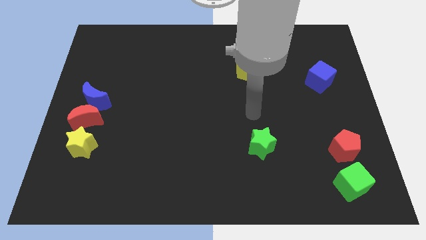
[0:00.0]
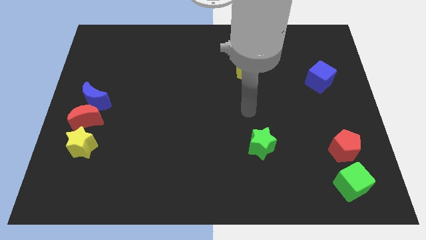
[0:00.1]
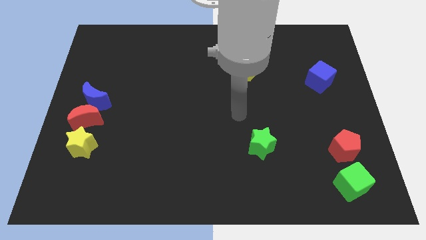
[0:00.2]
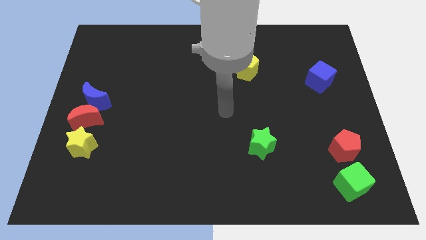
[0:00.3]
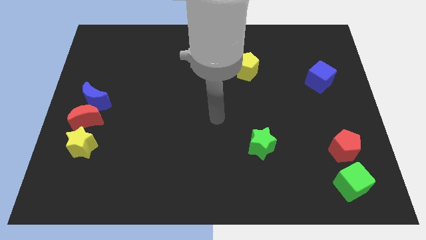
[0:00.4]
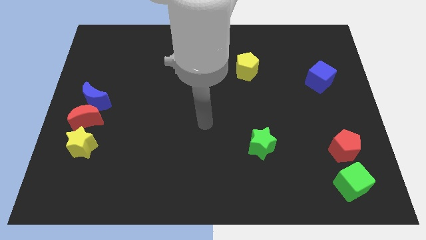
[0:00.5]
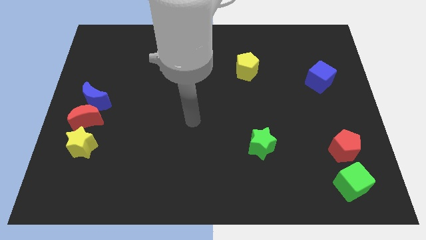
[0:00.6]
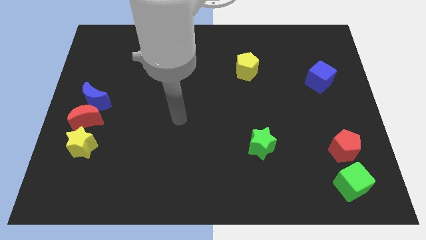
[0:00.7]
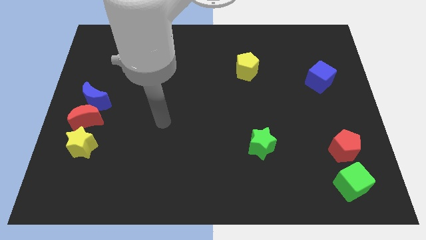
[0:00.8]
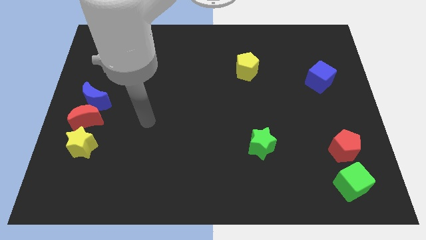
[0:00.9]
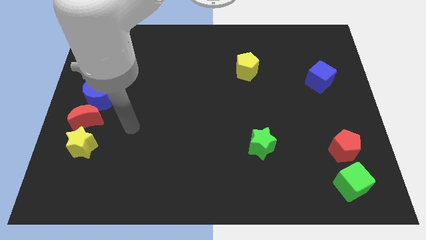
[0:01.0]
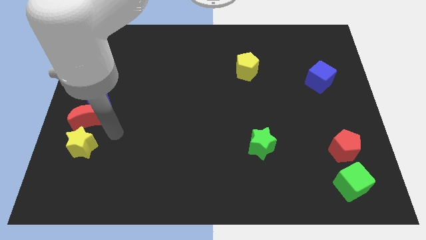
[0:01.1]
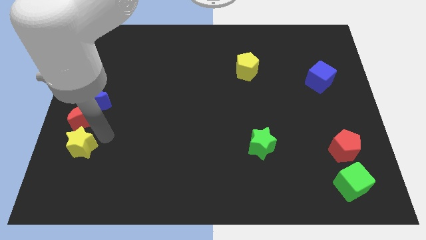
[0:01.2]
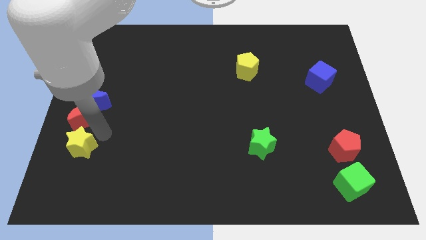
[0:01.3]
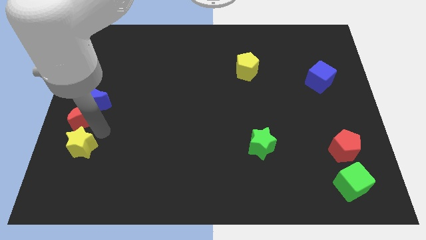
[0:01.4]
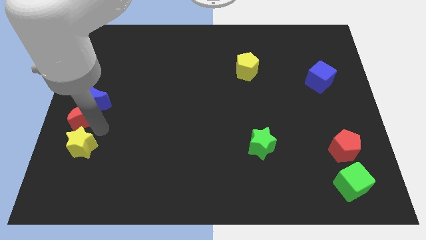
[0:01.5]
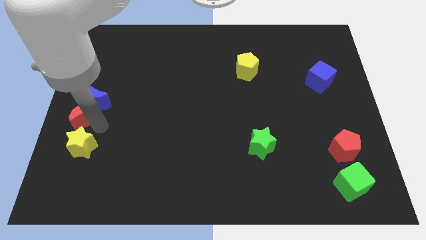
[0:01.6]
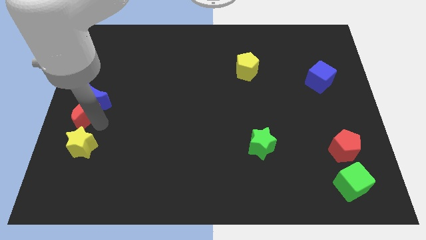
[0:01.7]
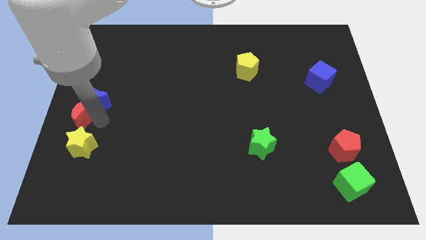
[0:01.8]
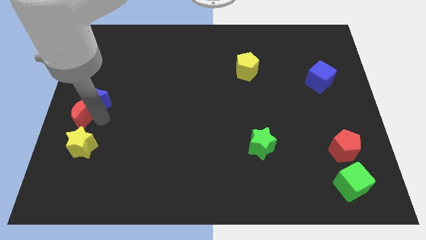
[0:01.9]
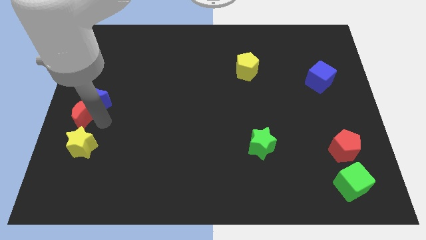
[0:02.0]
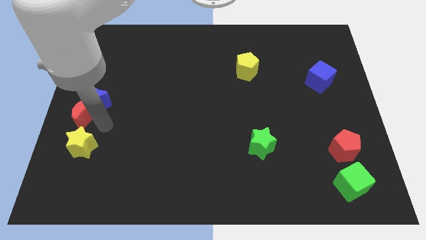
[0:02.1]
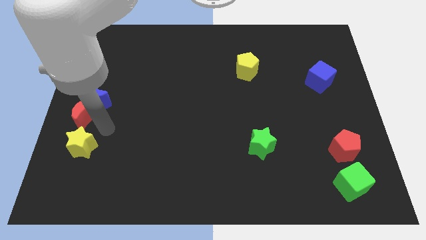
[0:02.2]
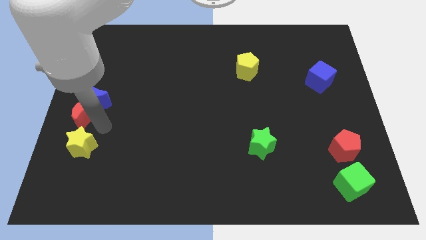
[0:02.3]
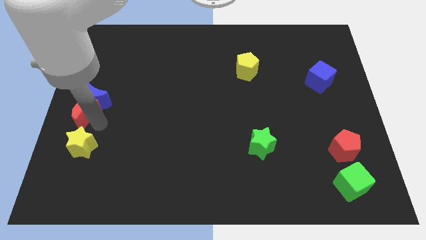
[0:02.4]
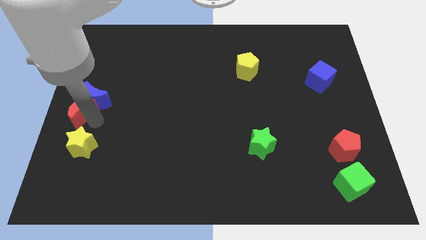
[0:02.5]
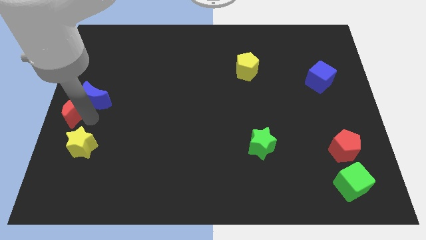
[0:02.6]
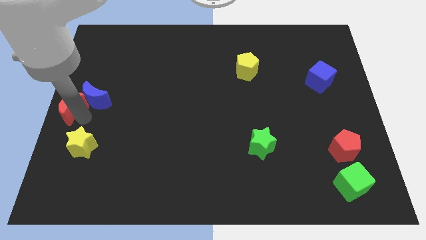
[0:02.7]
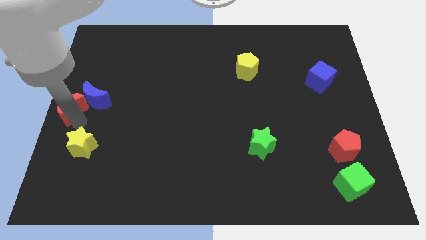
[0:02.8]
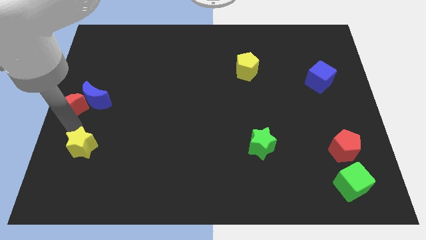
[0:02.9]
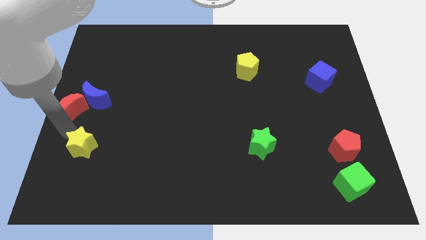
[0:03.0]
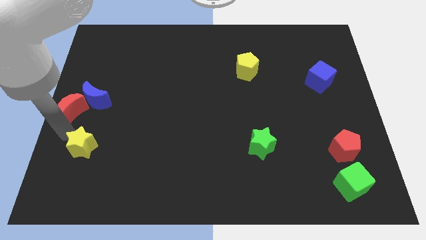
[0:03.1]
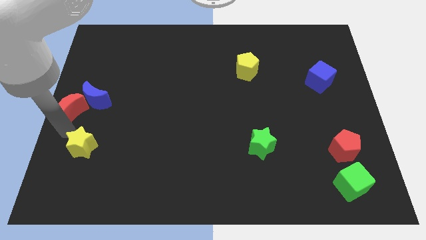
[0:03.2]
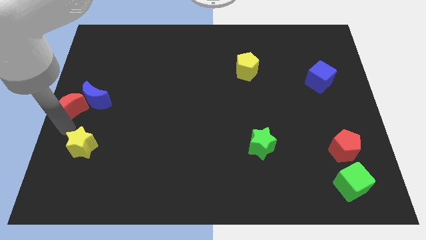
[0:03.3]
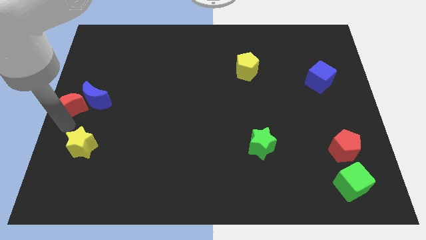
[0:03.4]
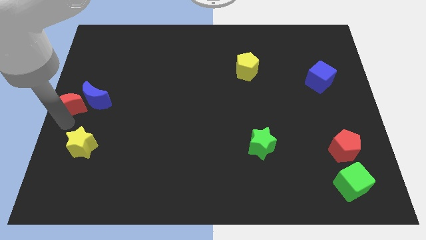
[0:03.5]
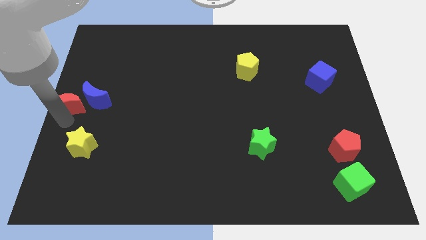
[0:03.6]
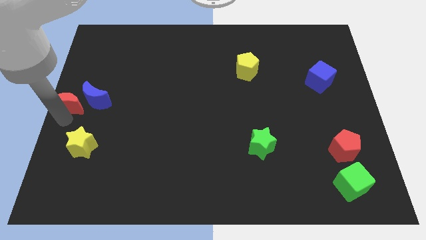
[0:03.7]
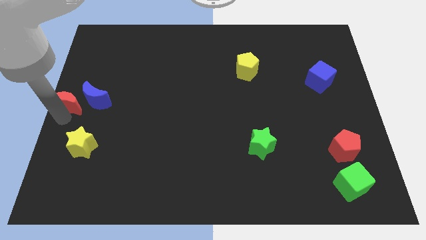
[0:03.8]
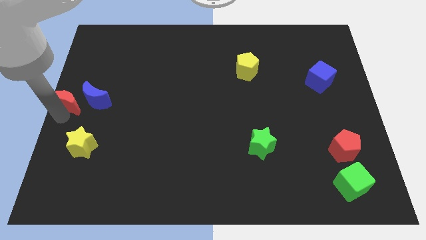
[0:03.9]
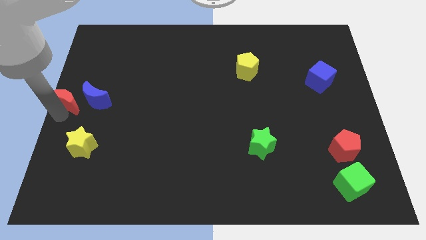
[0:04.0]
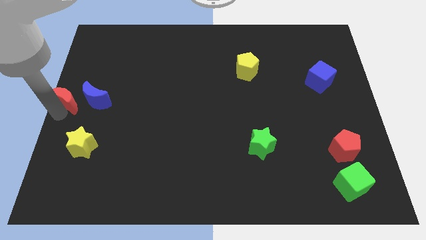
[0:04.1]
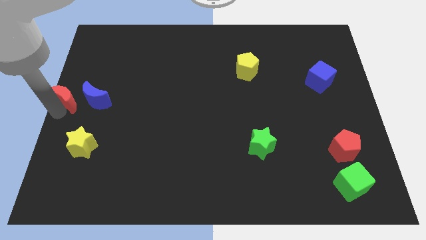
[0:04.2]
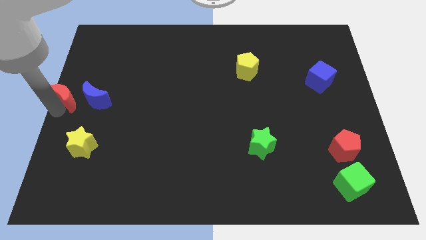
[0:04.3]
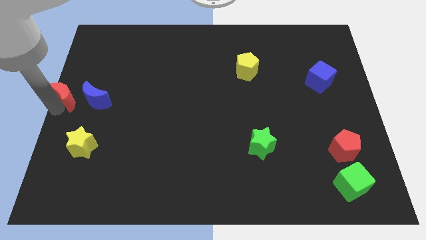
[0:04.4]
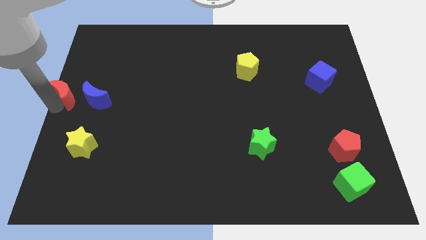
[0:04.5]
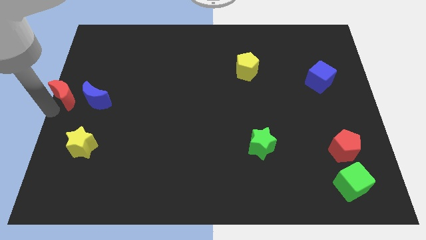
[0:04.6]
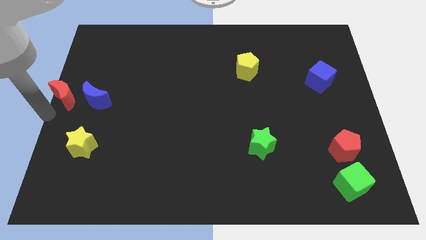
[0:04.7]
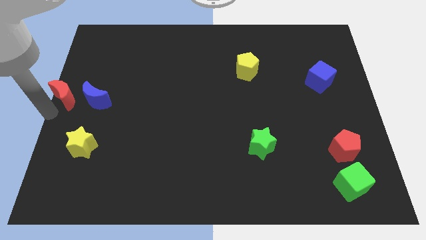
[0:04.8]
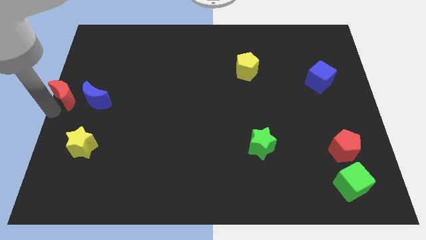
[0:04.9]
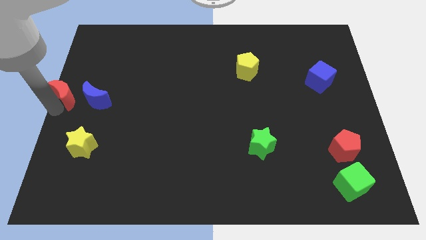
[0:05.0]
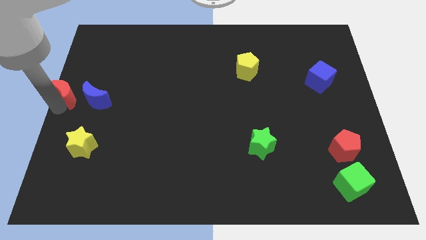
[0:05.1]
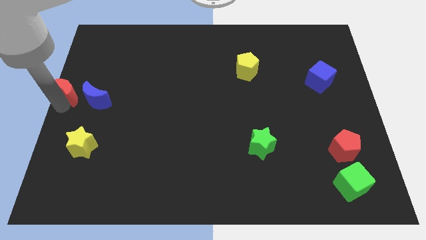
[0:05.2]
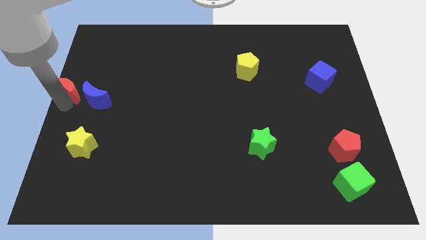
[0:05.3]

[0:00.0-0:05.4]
move the red moon a little bit up

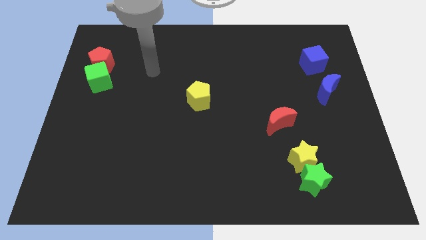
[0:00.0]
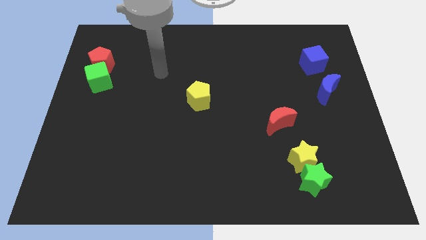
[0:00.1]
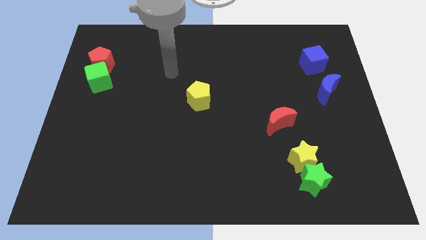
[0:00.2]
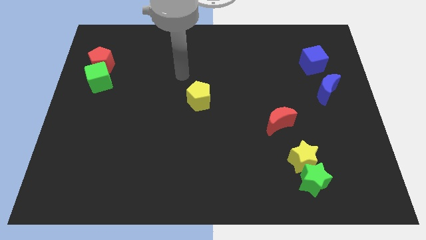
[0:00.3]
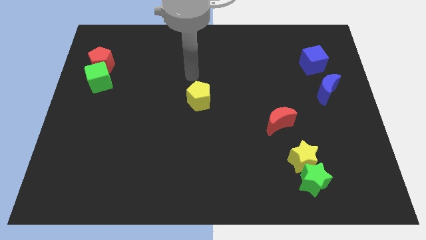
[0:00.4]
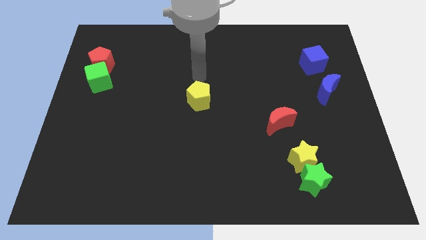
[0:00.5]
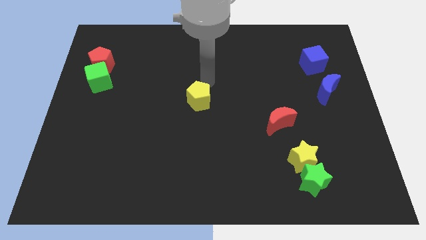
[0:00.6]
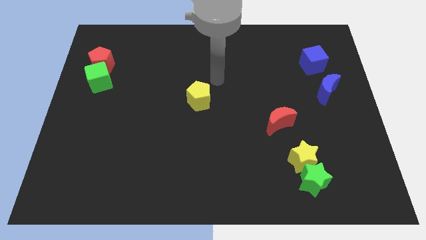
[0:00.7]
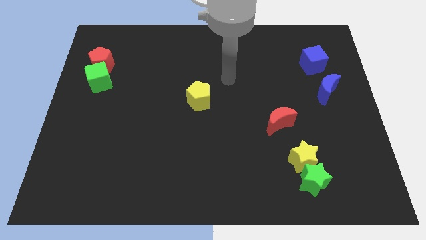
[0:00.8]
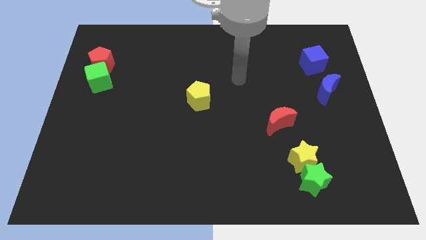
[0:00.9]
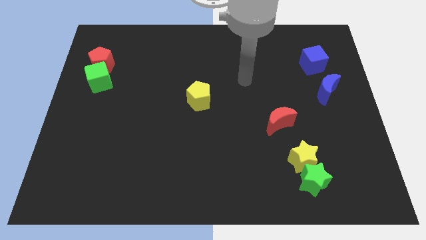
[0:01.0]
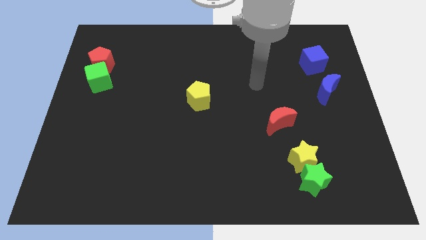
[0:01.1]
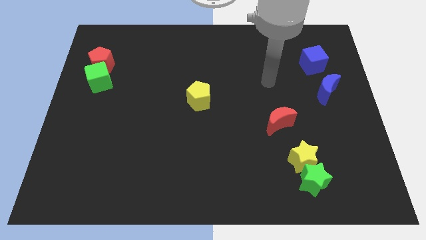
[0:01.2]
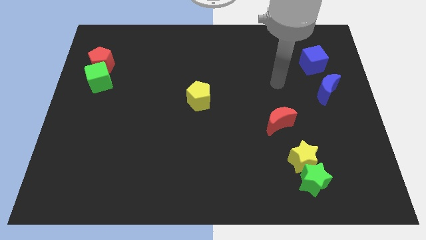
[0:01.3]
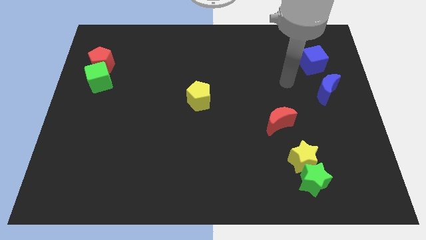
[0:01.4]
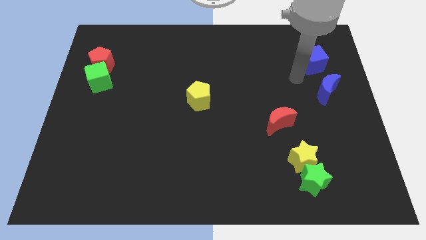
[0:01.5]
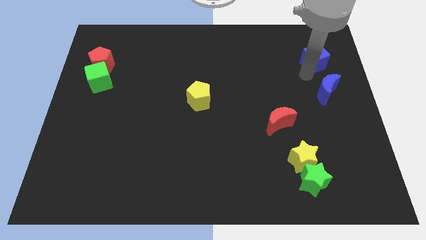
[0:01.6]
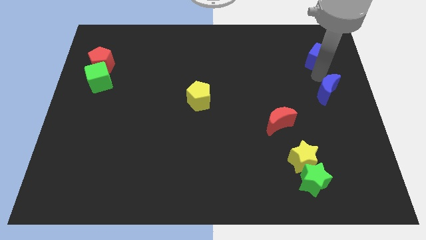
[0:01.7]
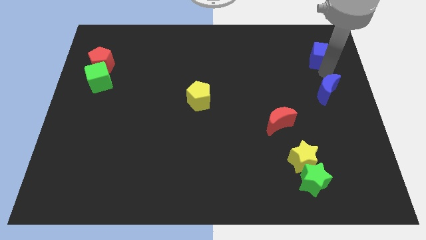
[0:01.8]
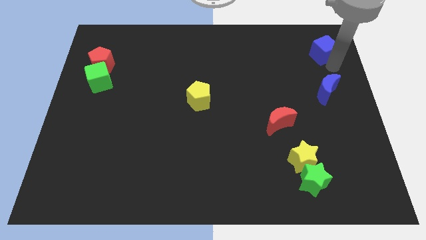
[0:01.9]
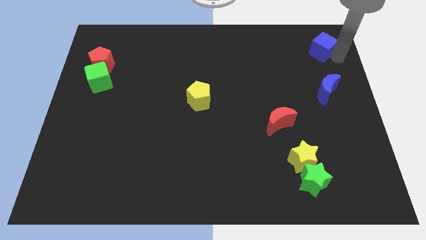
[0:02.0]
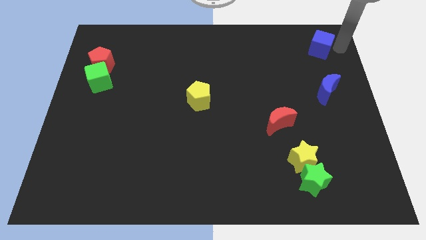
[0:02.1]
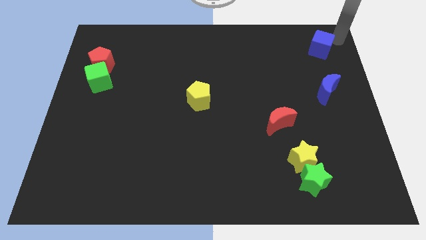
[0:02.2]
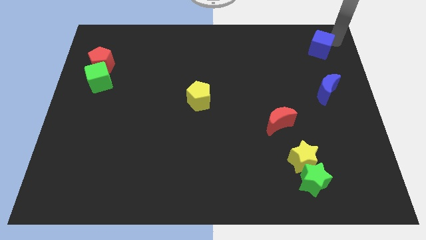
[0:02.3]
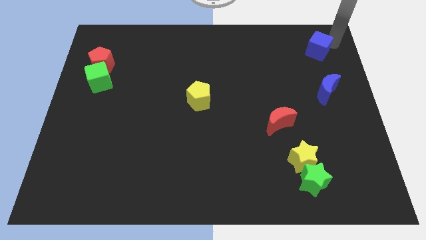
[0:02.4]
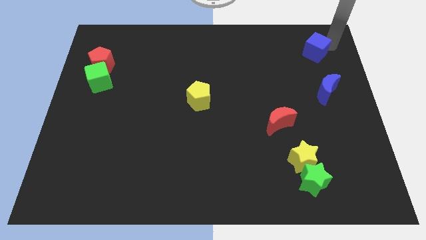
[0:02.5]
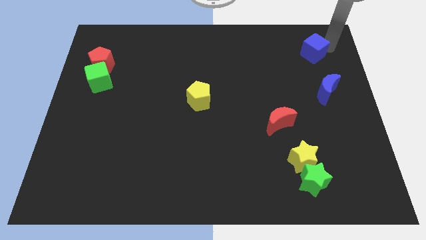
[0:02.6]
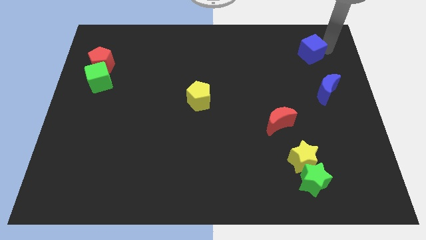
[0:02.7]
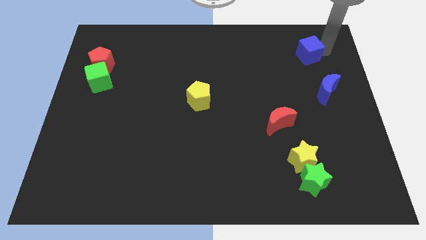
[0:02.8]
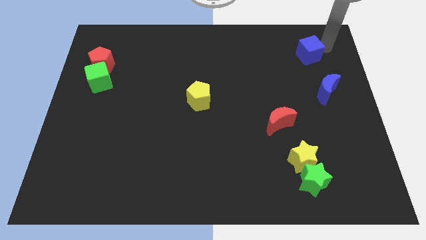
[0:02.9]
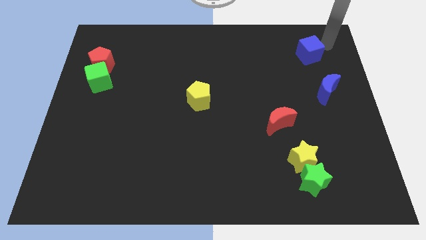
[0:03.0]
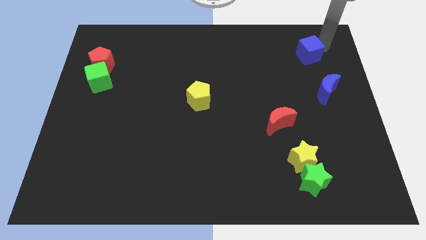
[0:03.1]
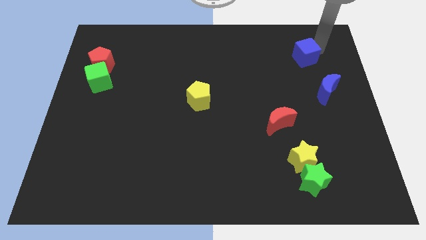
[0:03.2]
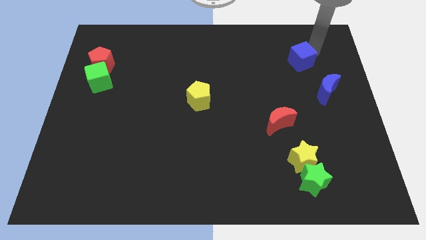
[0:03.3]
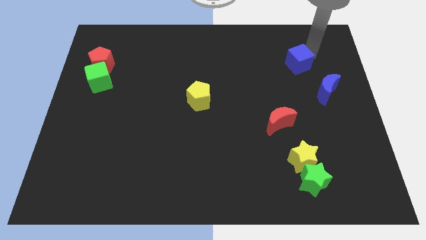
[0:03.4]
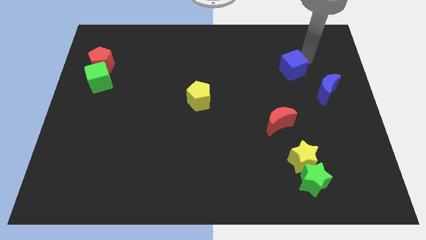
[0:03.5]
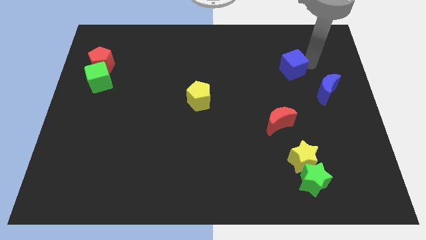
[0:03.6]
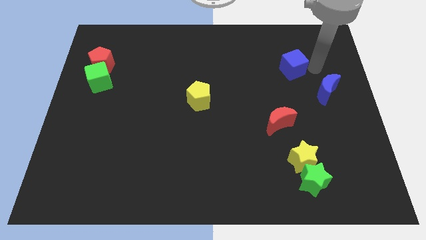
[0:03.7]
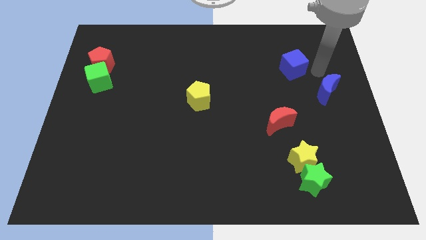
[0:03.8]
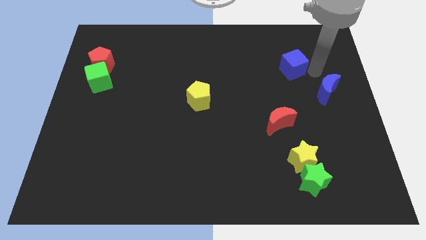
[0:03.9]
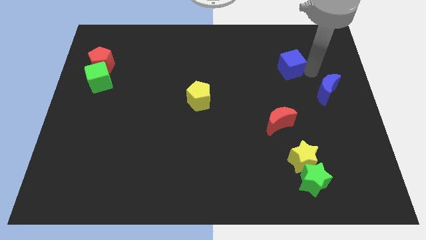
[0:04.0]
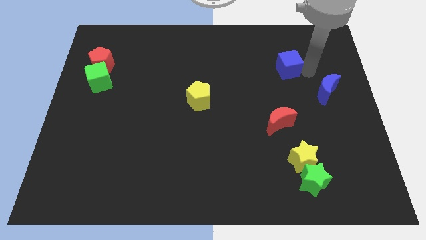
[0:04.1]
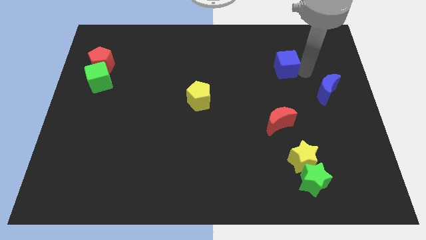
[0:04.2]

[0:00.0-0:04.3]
push the blue cube a little bit left
